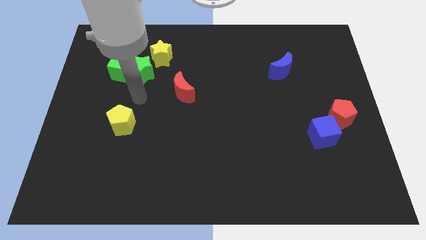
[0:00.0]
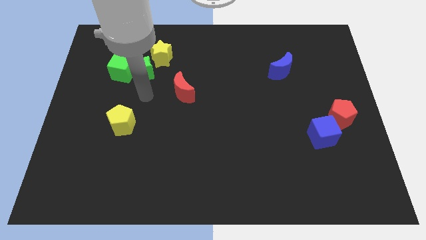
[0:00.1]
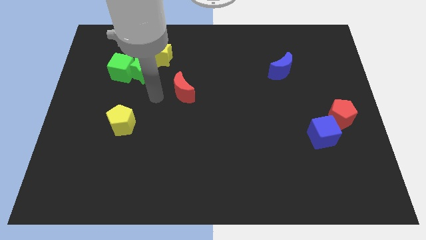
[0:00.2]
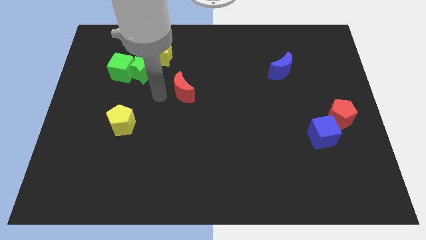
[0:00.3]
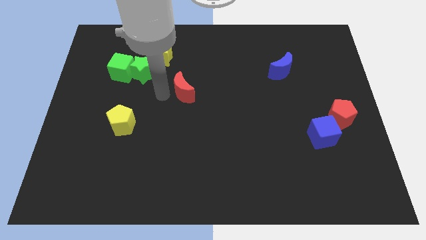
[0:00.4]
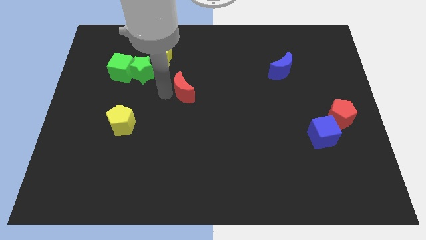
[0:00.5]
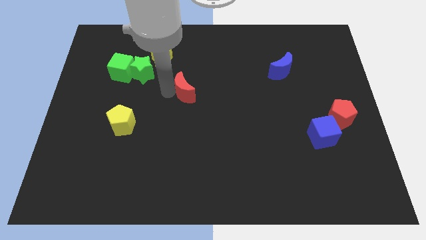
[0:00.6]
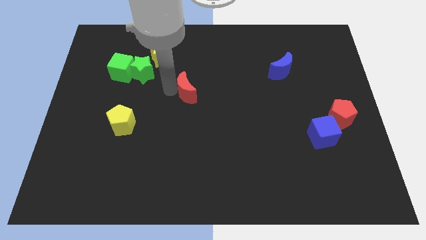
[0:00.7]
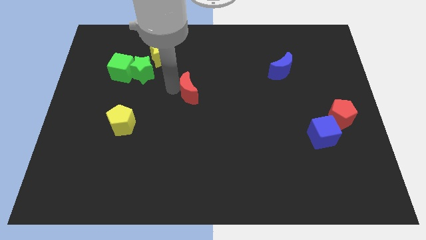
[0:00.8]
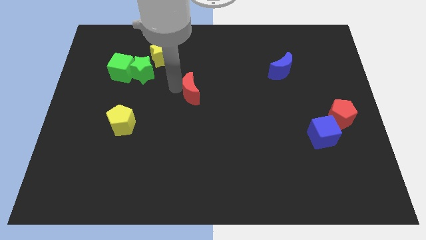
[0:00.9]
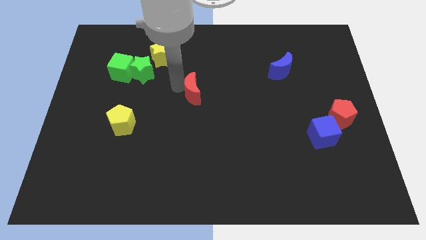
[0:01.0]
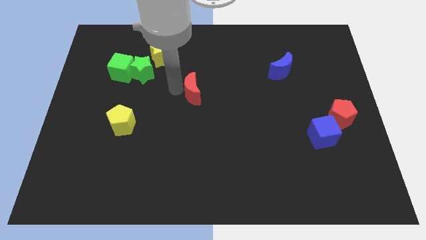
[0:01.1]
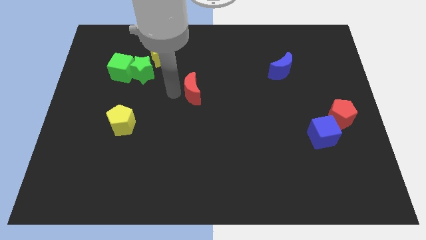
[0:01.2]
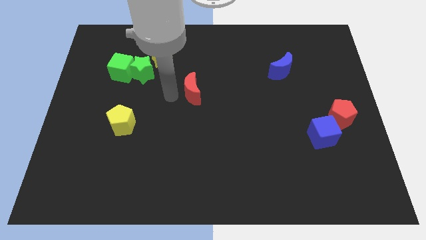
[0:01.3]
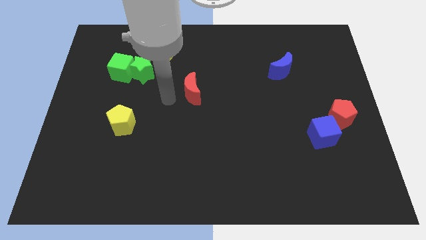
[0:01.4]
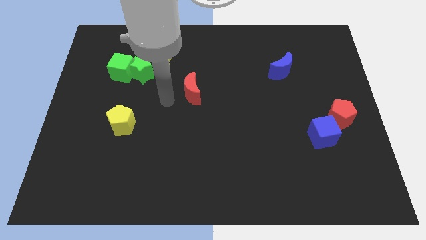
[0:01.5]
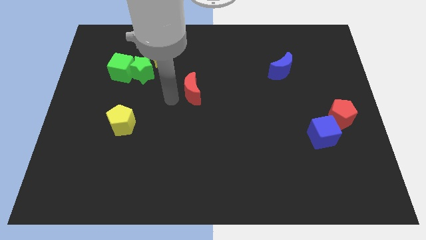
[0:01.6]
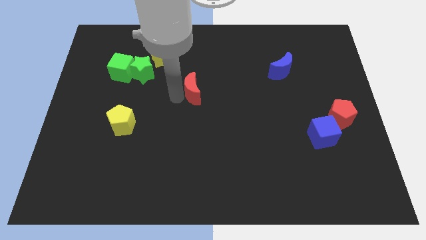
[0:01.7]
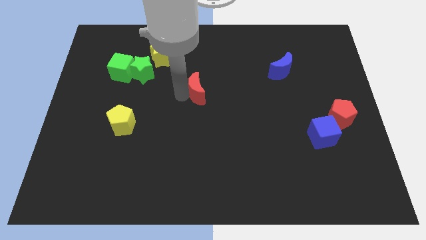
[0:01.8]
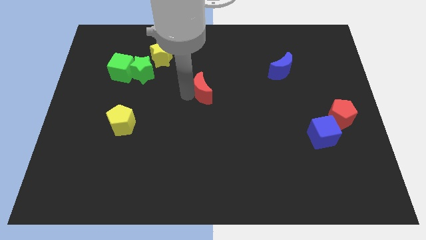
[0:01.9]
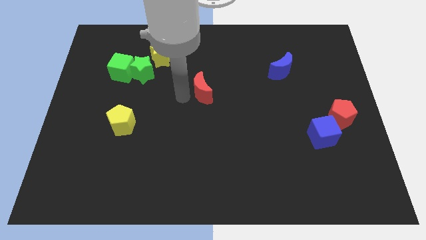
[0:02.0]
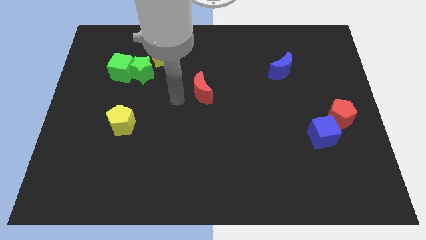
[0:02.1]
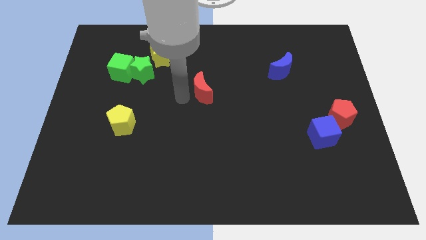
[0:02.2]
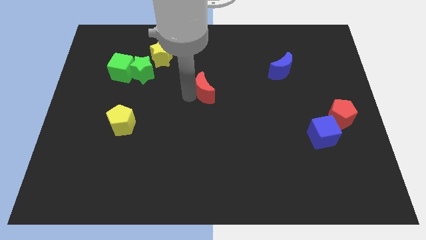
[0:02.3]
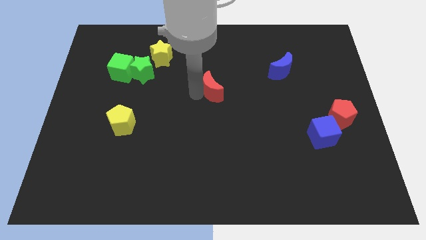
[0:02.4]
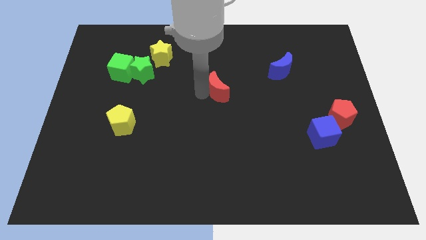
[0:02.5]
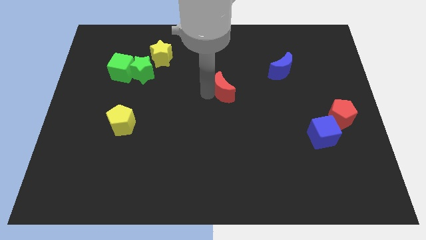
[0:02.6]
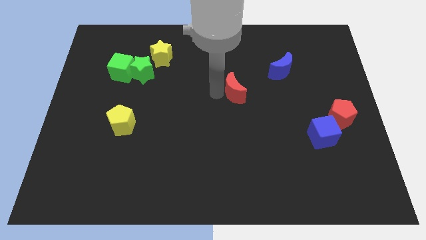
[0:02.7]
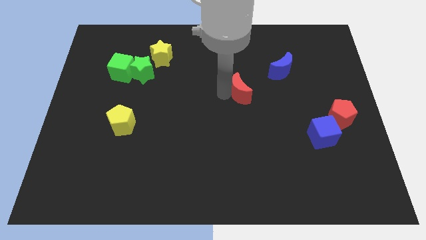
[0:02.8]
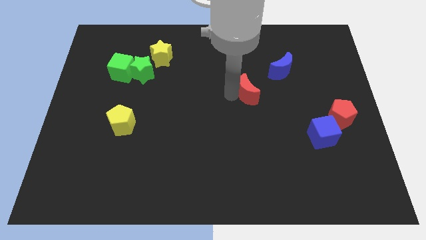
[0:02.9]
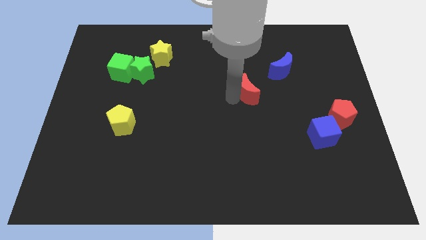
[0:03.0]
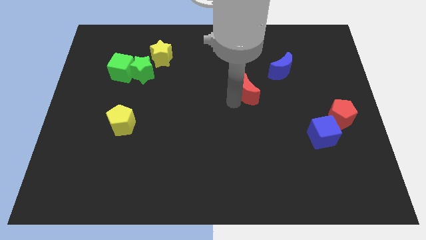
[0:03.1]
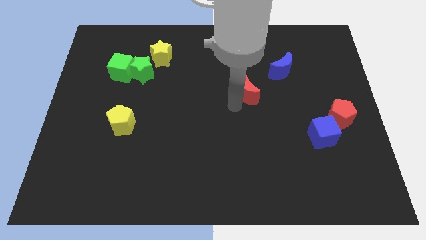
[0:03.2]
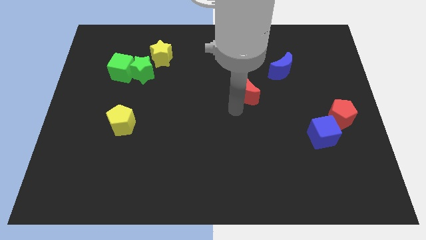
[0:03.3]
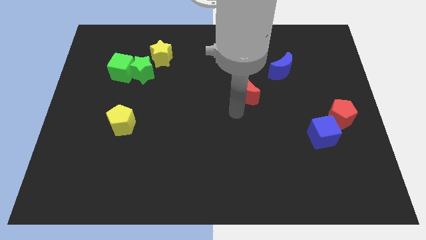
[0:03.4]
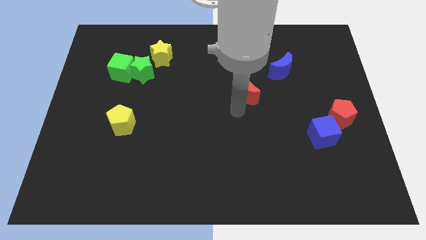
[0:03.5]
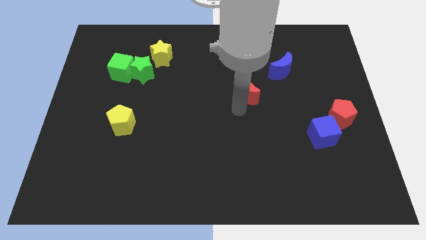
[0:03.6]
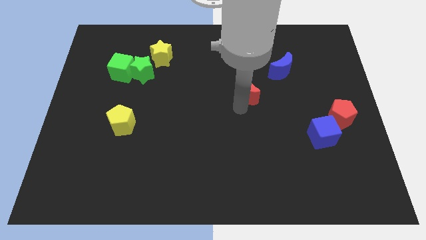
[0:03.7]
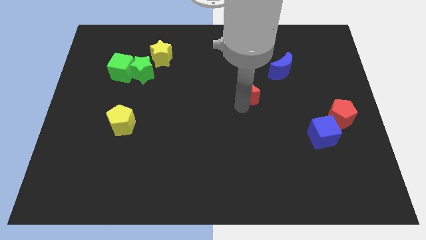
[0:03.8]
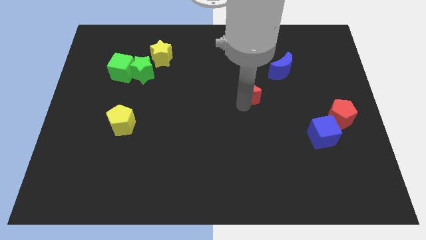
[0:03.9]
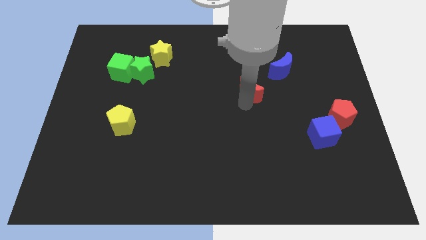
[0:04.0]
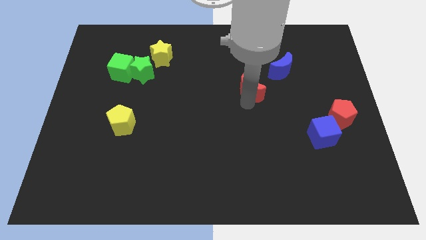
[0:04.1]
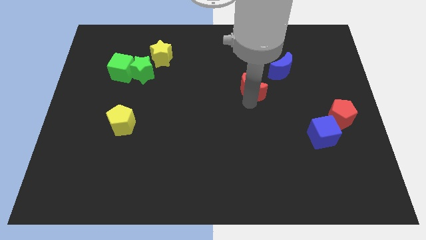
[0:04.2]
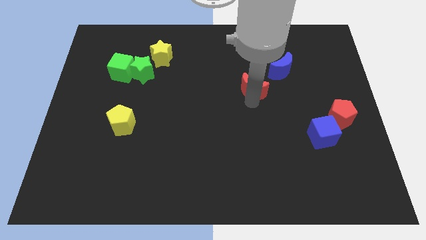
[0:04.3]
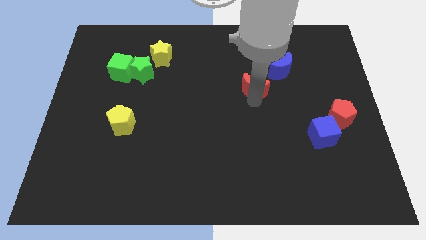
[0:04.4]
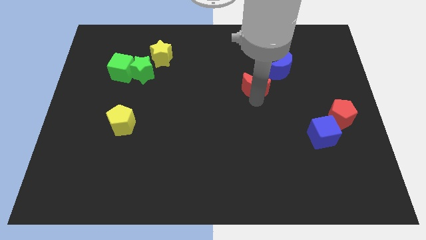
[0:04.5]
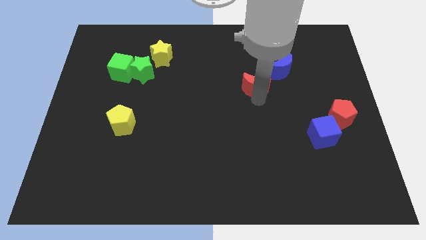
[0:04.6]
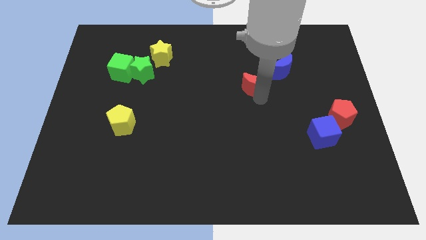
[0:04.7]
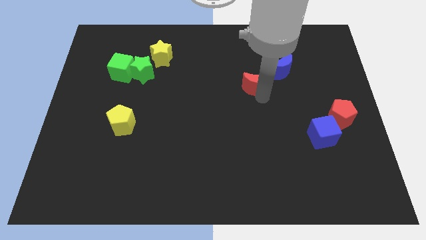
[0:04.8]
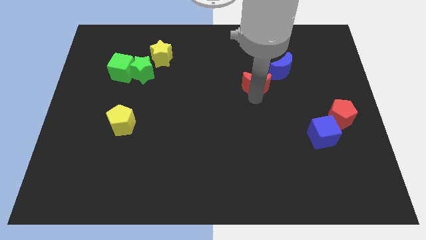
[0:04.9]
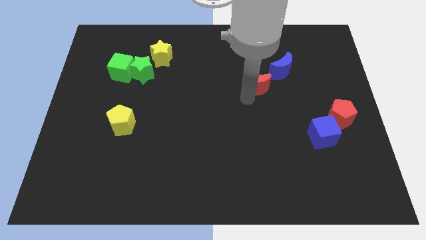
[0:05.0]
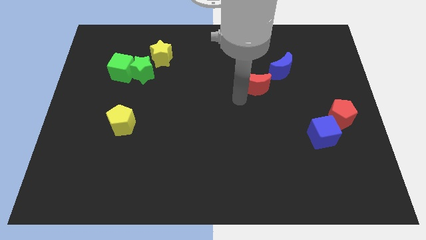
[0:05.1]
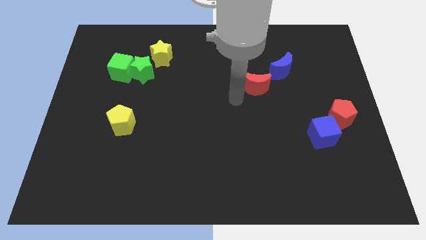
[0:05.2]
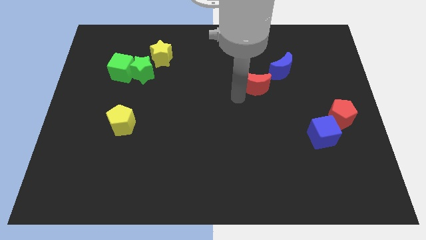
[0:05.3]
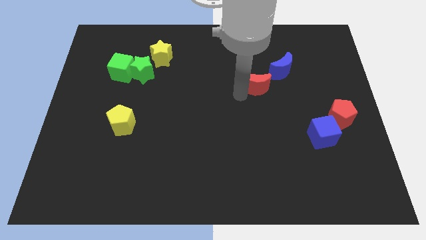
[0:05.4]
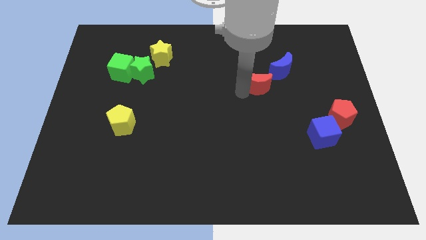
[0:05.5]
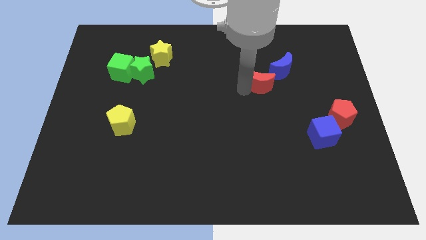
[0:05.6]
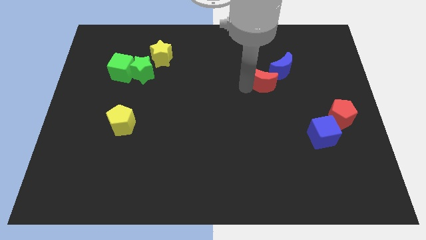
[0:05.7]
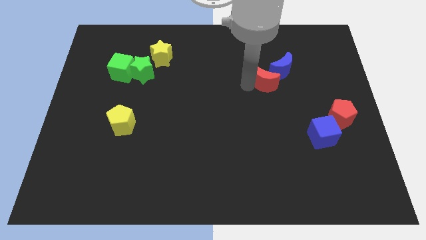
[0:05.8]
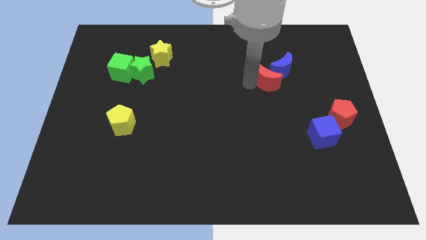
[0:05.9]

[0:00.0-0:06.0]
push the red moon towards the blue moon

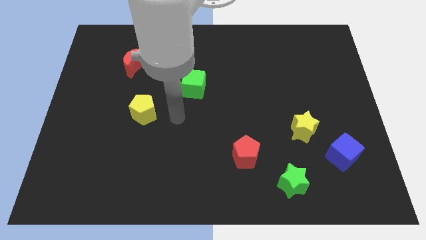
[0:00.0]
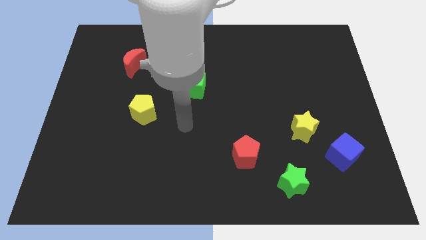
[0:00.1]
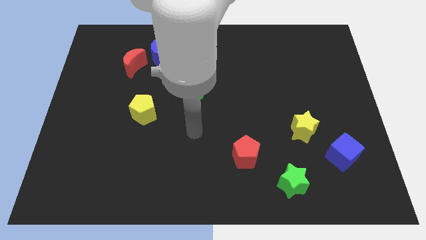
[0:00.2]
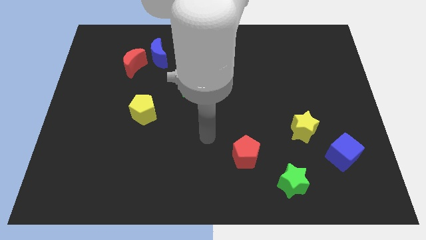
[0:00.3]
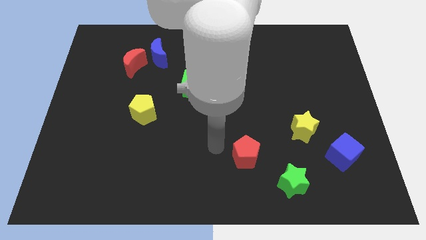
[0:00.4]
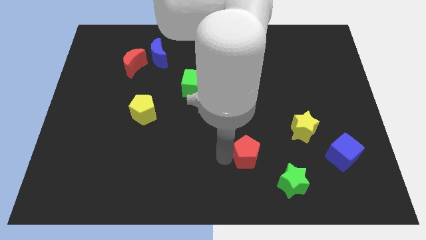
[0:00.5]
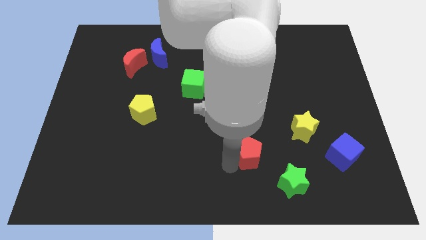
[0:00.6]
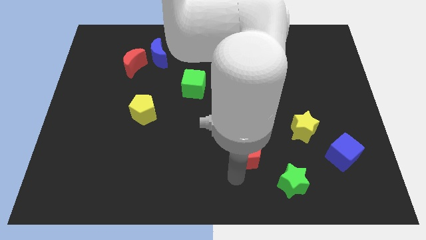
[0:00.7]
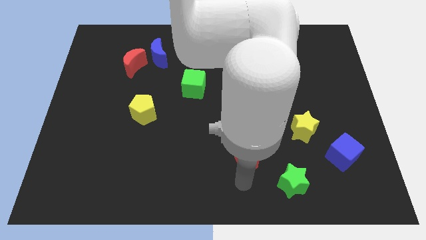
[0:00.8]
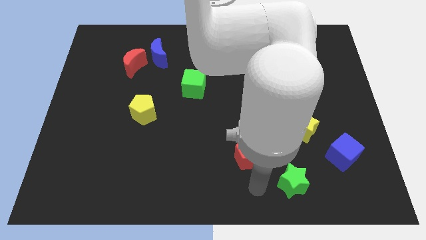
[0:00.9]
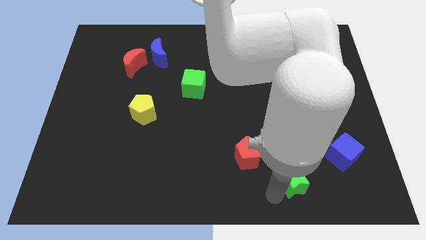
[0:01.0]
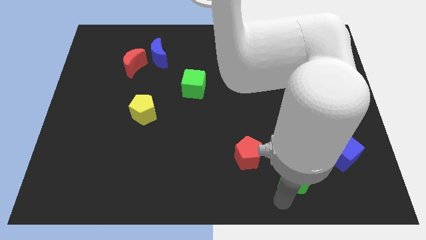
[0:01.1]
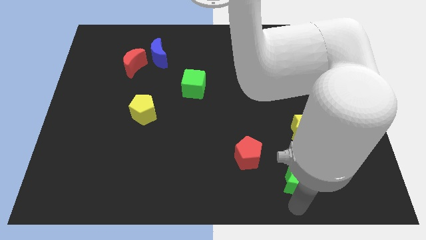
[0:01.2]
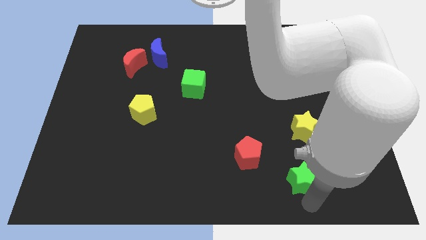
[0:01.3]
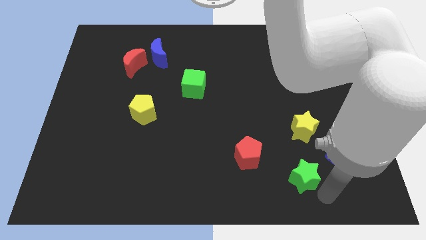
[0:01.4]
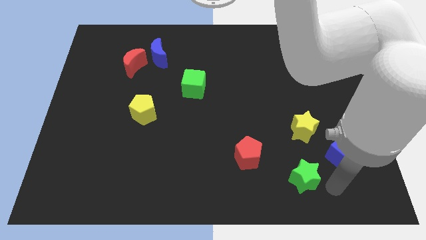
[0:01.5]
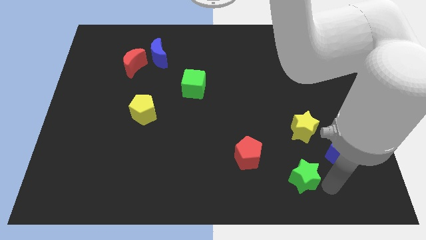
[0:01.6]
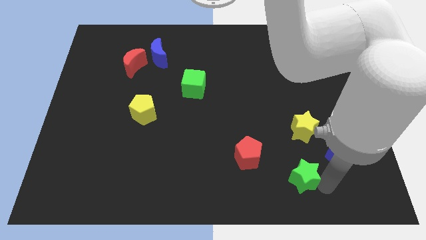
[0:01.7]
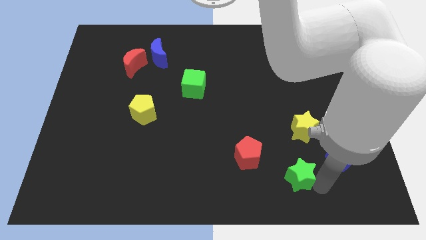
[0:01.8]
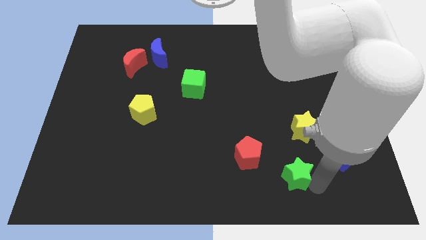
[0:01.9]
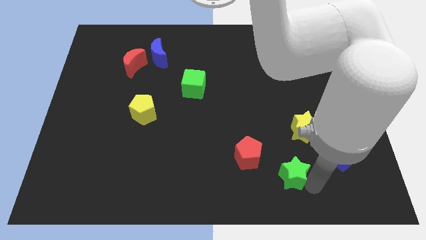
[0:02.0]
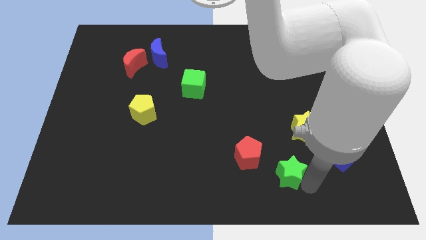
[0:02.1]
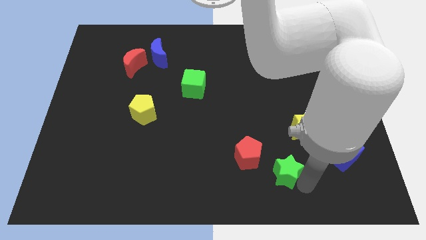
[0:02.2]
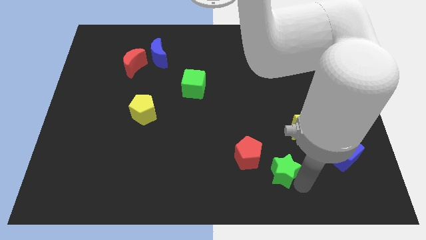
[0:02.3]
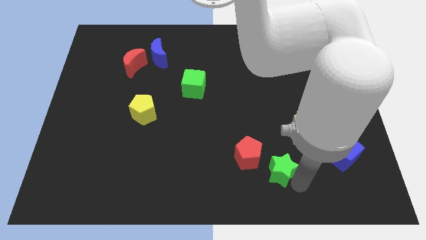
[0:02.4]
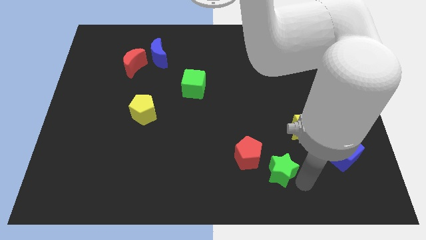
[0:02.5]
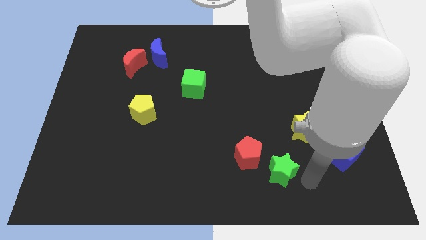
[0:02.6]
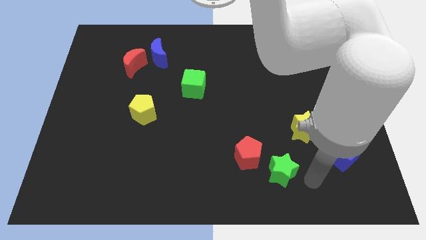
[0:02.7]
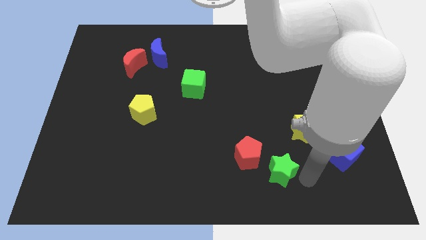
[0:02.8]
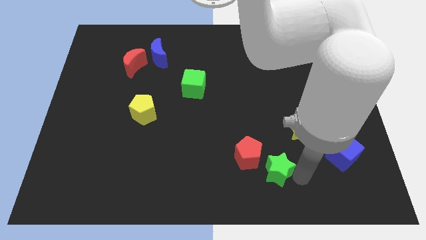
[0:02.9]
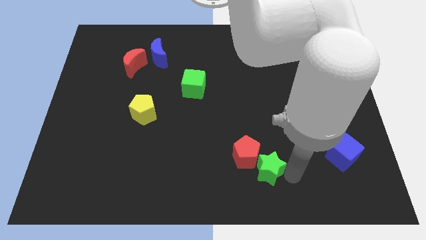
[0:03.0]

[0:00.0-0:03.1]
put the green star next to the red pentagon
